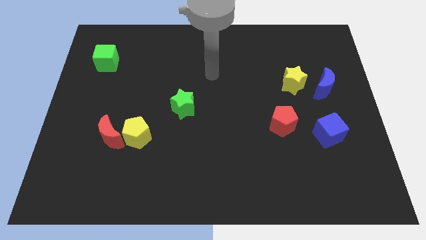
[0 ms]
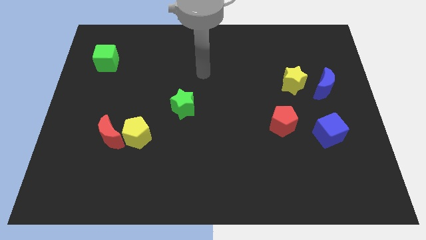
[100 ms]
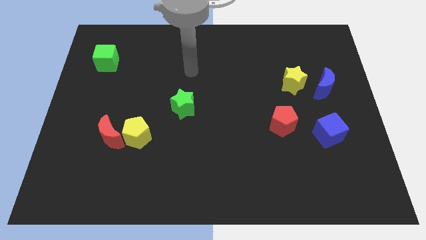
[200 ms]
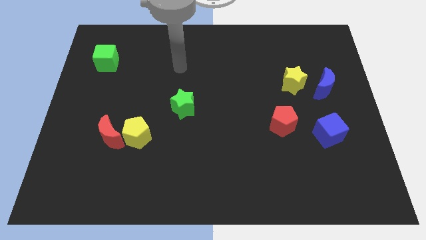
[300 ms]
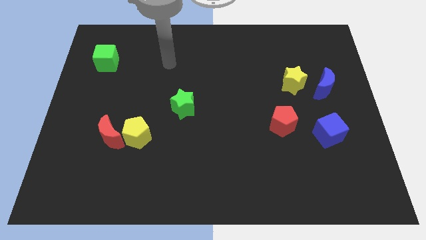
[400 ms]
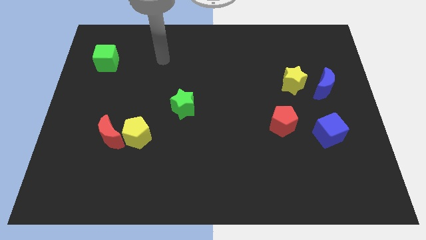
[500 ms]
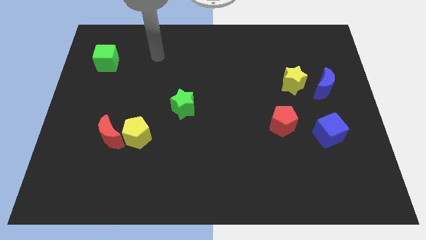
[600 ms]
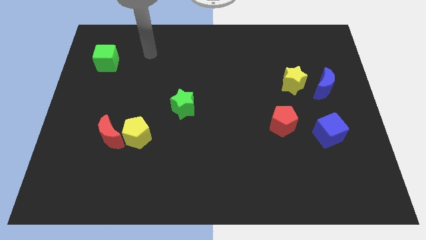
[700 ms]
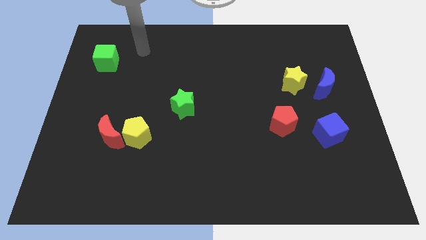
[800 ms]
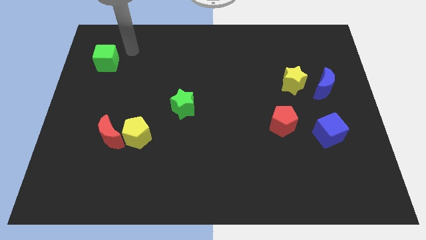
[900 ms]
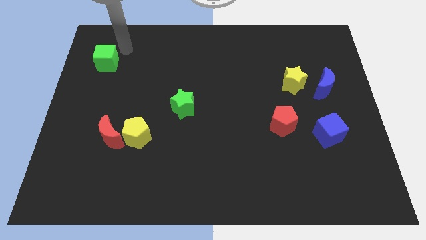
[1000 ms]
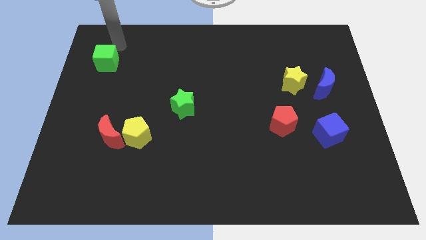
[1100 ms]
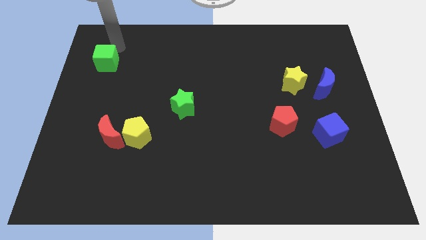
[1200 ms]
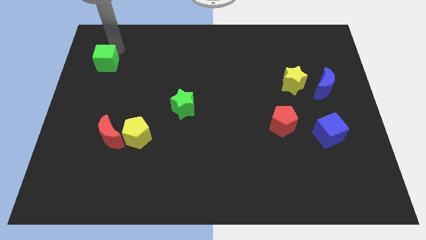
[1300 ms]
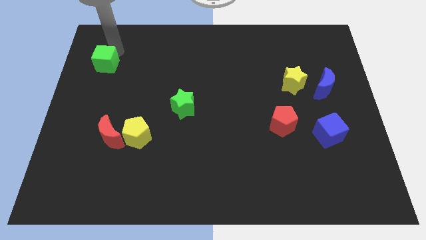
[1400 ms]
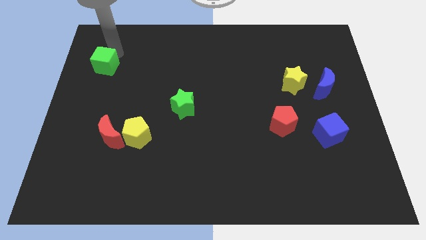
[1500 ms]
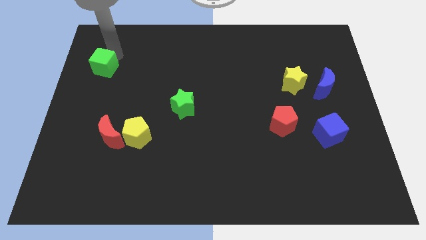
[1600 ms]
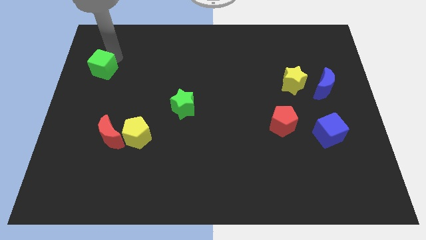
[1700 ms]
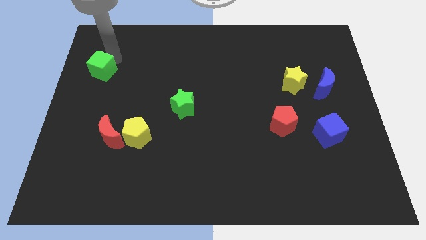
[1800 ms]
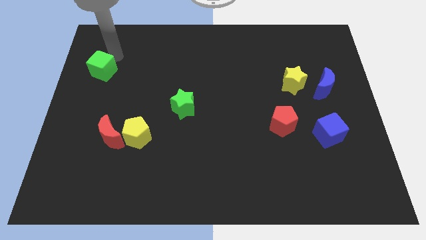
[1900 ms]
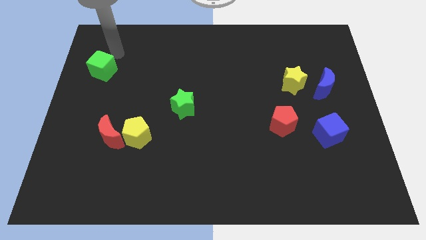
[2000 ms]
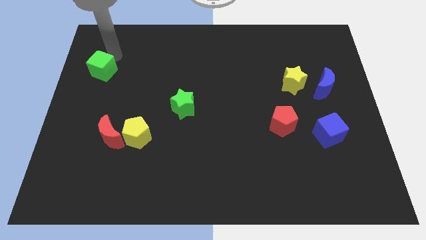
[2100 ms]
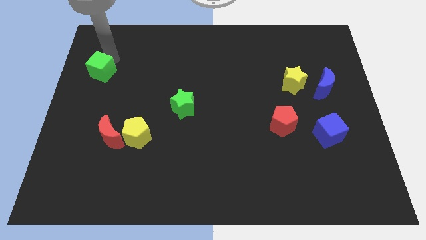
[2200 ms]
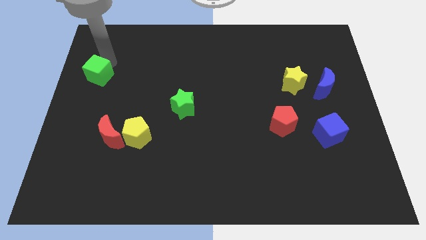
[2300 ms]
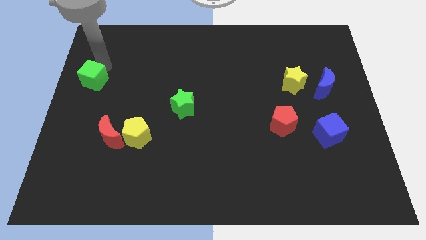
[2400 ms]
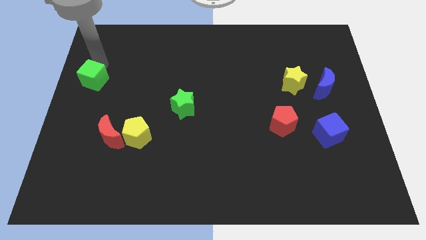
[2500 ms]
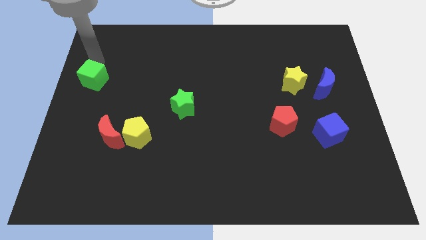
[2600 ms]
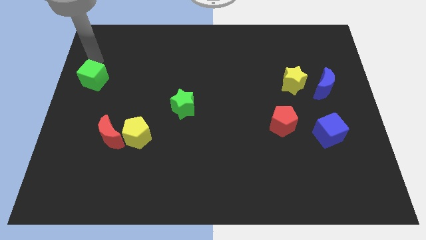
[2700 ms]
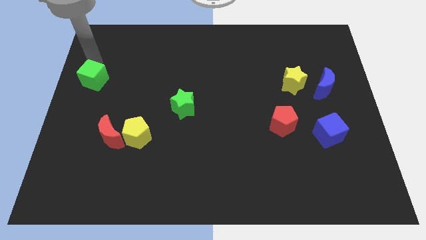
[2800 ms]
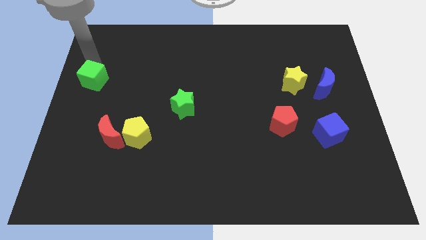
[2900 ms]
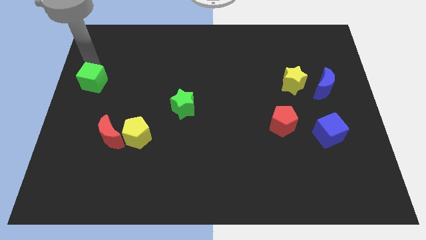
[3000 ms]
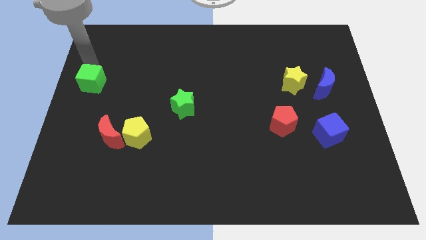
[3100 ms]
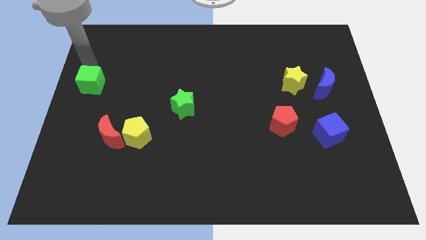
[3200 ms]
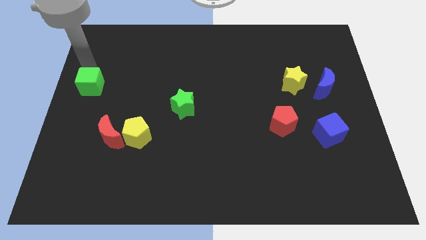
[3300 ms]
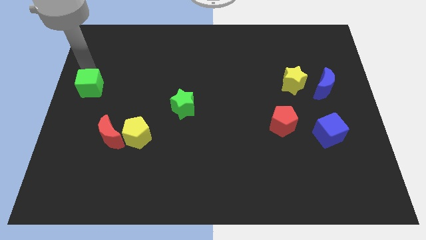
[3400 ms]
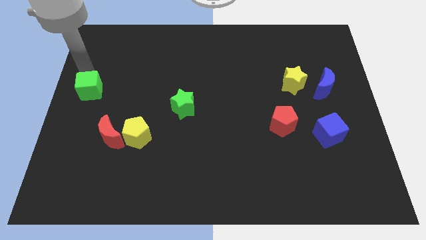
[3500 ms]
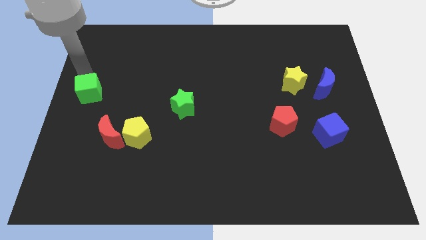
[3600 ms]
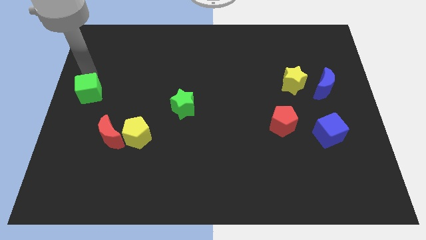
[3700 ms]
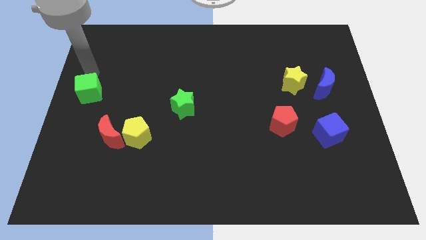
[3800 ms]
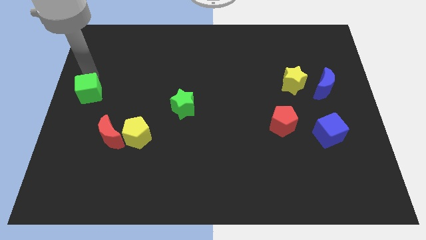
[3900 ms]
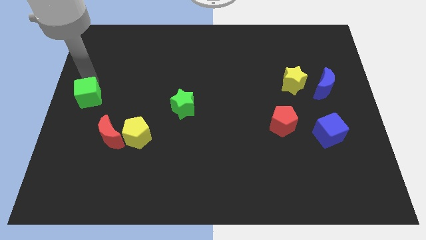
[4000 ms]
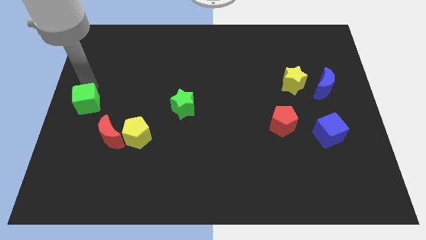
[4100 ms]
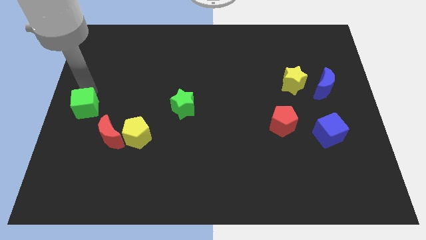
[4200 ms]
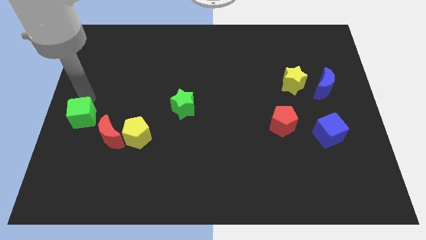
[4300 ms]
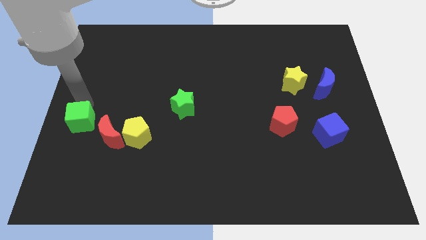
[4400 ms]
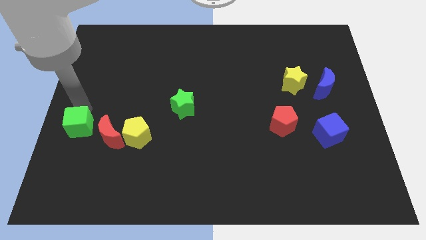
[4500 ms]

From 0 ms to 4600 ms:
push the green cube down

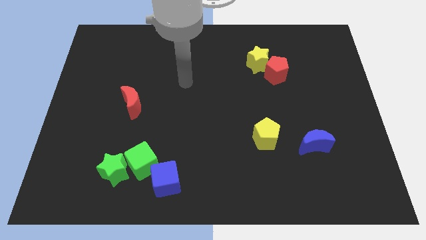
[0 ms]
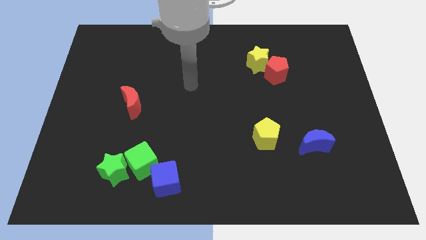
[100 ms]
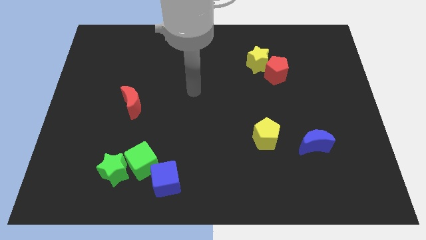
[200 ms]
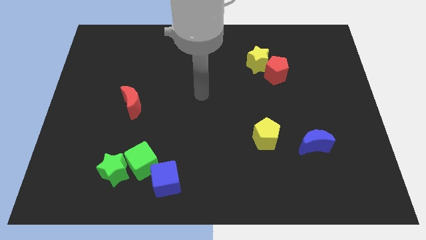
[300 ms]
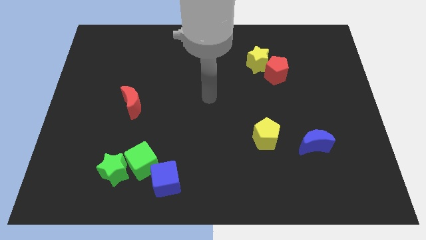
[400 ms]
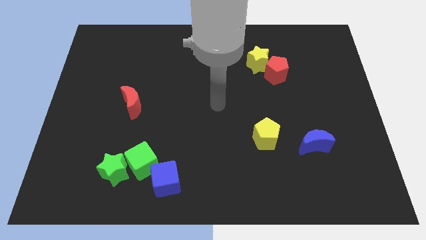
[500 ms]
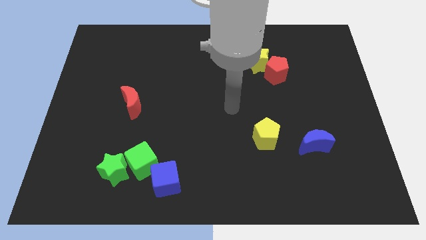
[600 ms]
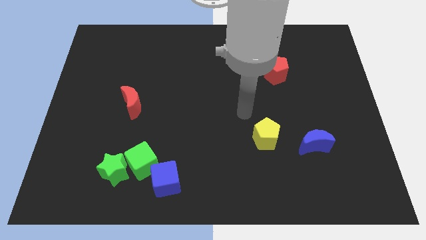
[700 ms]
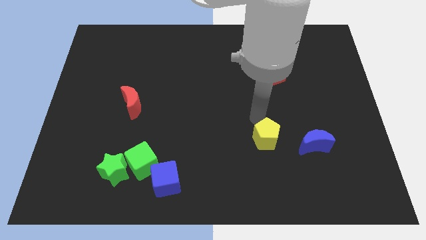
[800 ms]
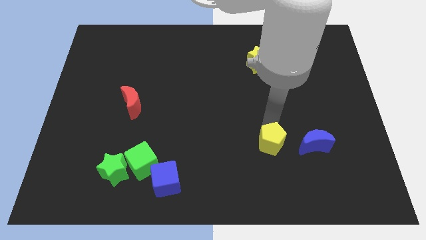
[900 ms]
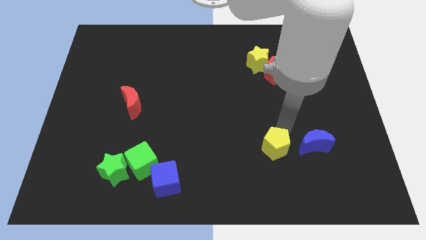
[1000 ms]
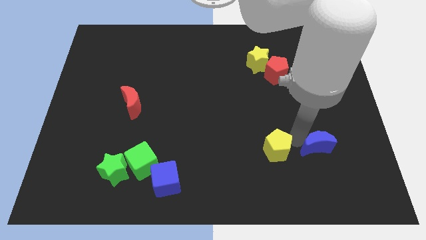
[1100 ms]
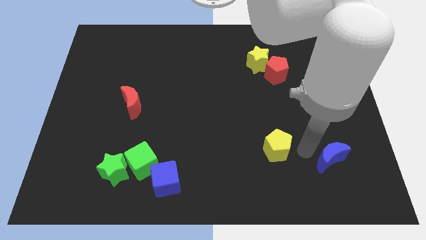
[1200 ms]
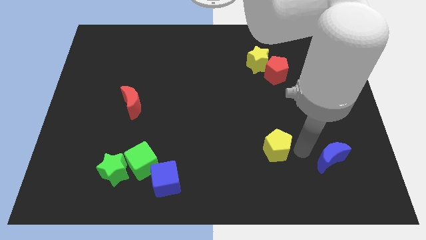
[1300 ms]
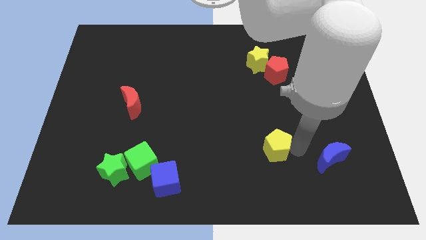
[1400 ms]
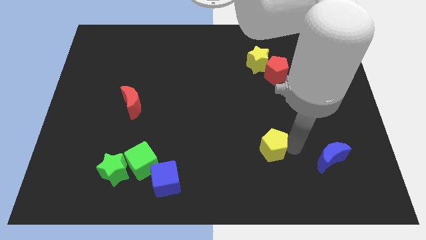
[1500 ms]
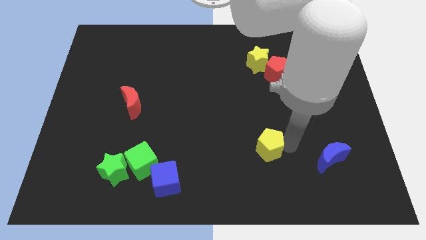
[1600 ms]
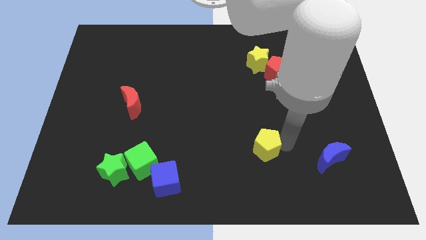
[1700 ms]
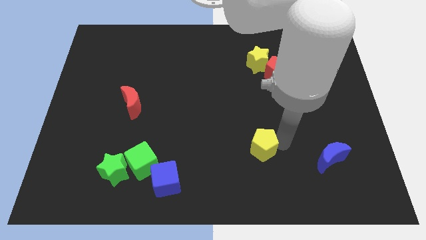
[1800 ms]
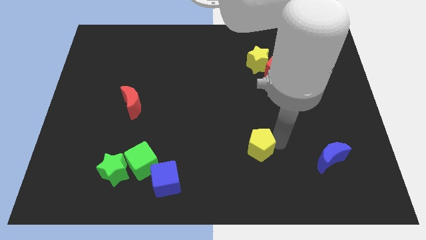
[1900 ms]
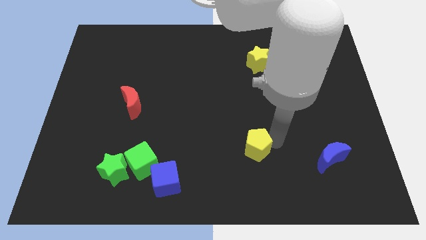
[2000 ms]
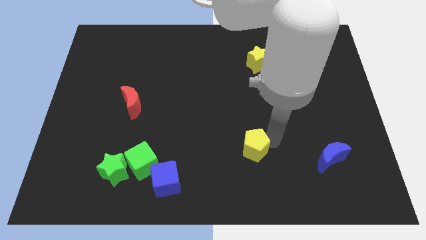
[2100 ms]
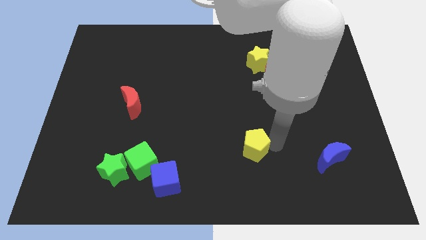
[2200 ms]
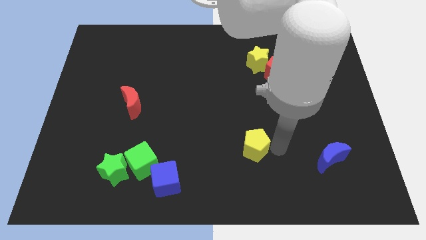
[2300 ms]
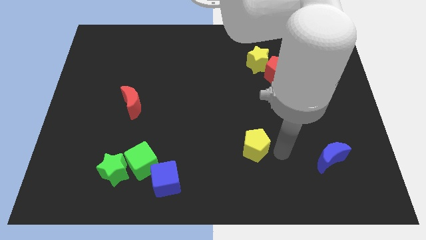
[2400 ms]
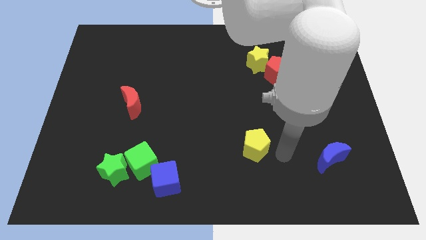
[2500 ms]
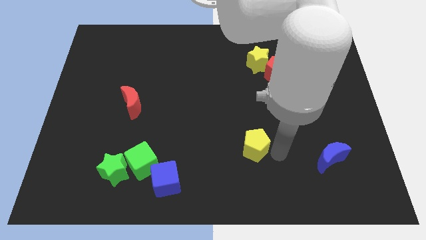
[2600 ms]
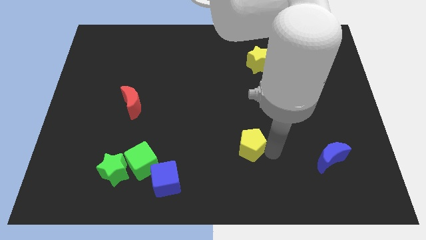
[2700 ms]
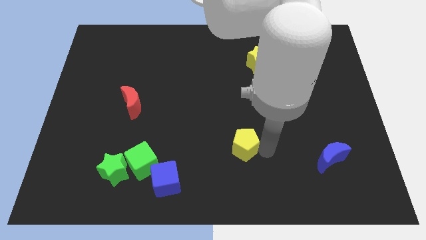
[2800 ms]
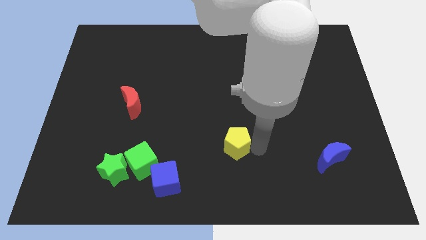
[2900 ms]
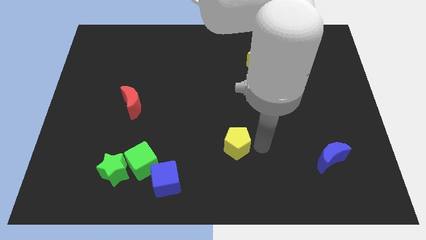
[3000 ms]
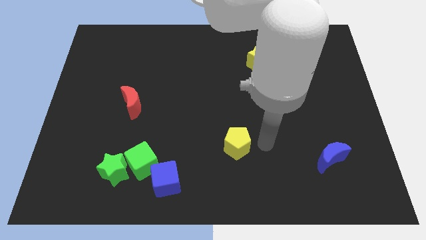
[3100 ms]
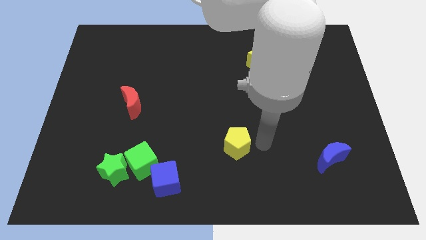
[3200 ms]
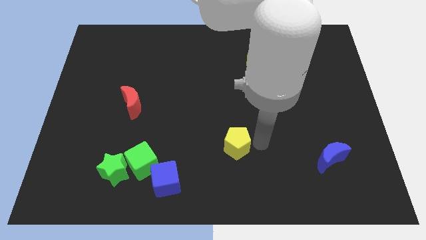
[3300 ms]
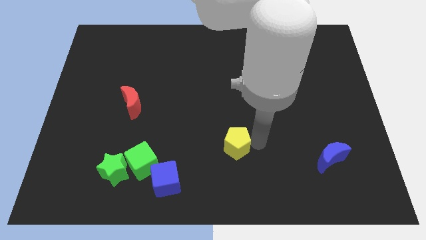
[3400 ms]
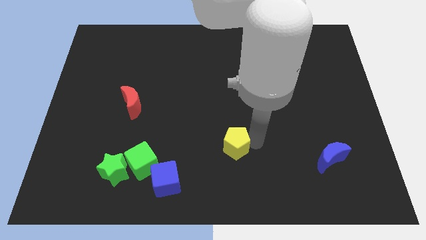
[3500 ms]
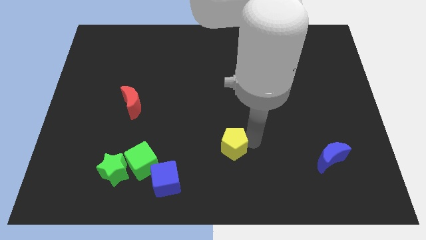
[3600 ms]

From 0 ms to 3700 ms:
slightly move the yellow pentagon left
